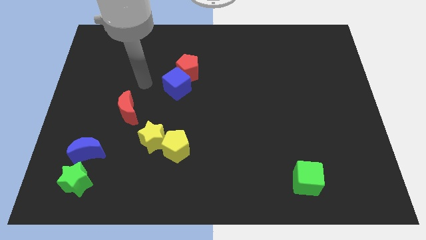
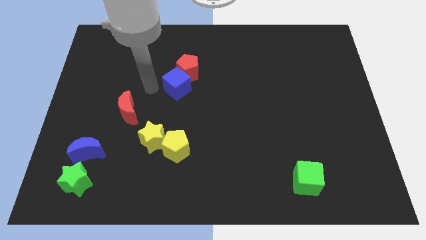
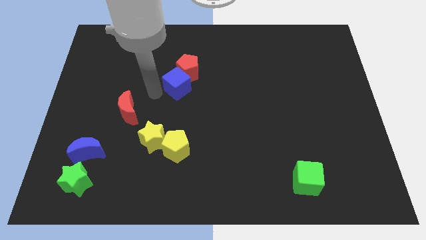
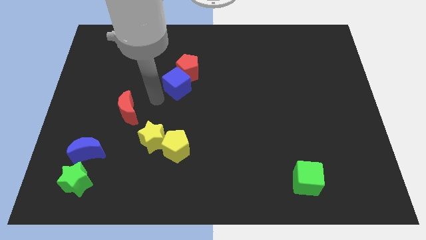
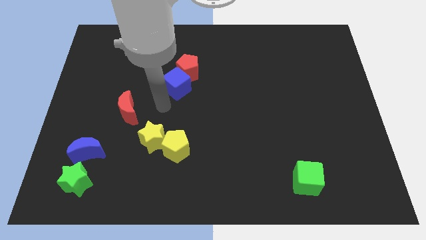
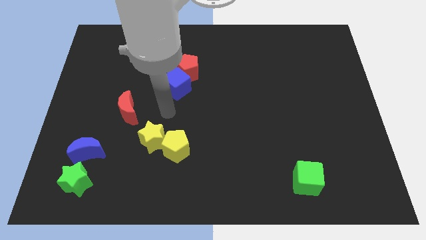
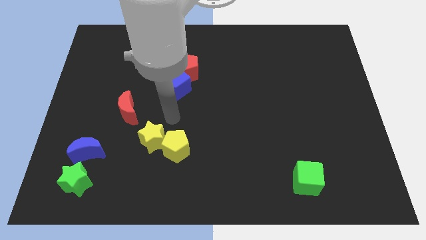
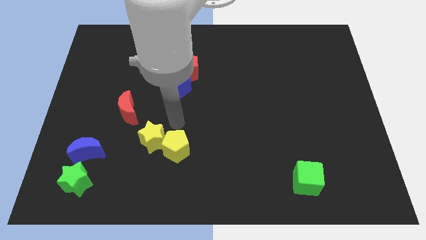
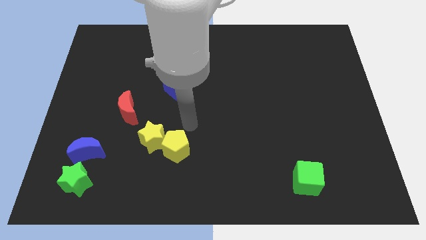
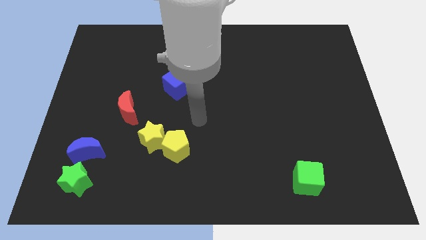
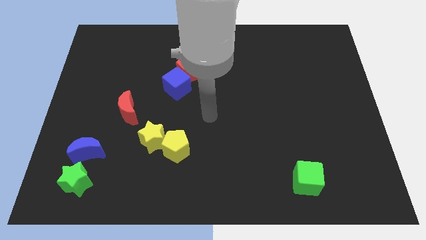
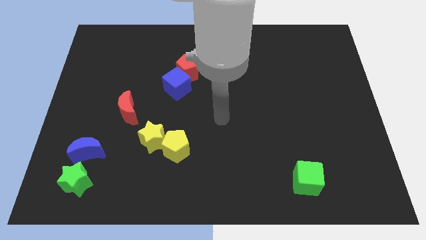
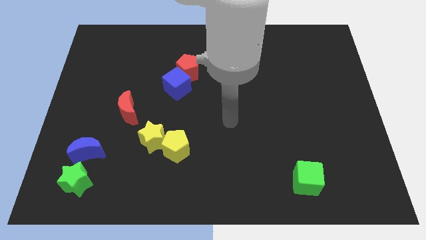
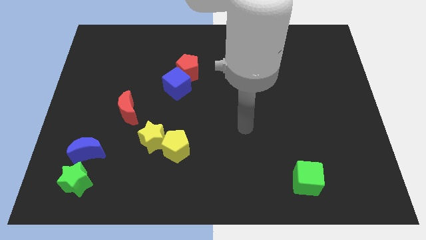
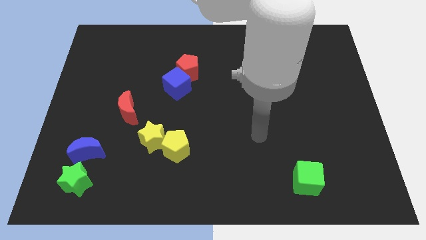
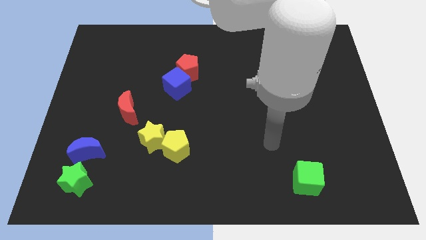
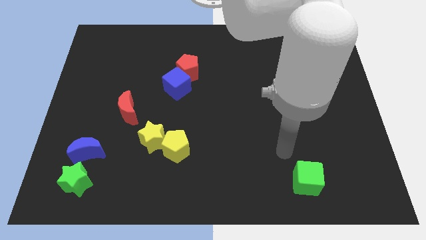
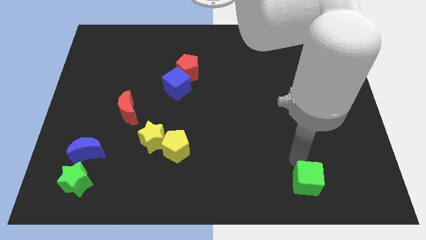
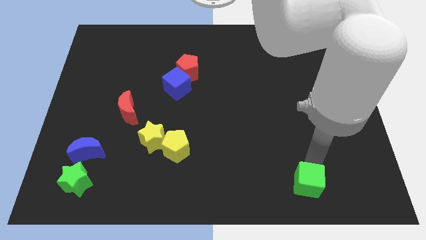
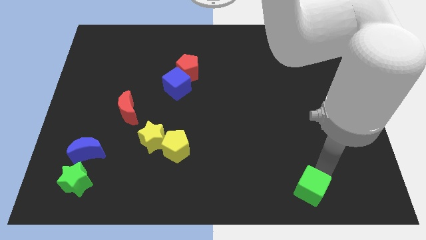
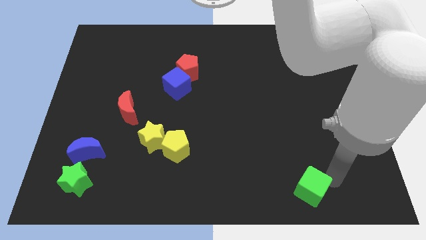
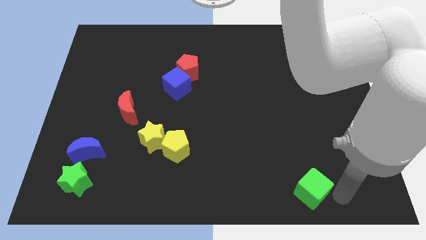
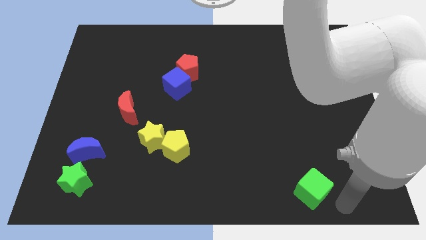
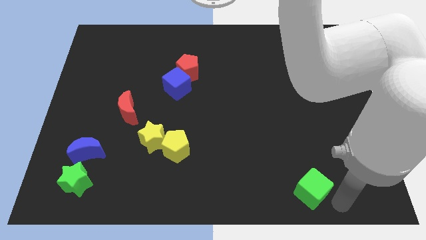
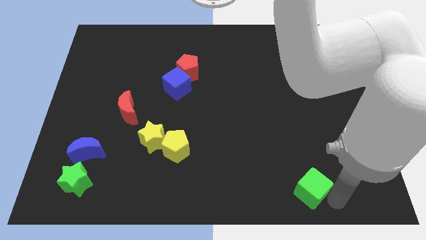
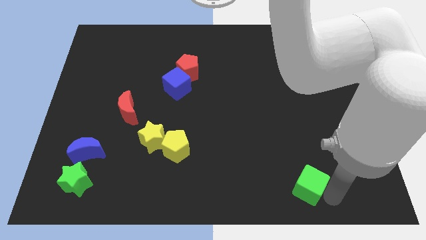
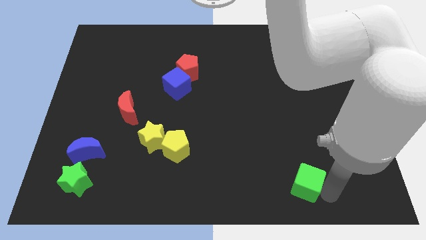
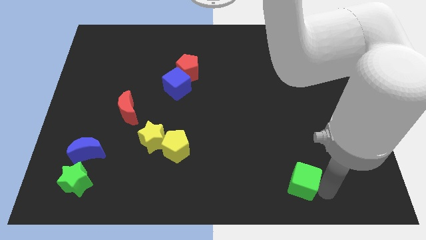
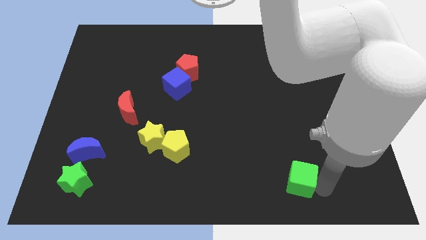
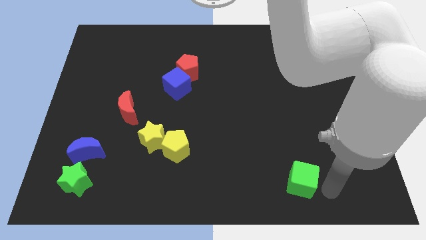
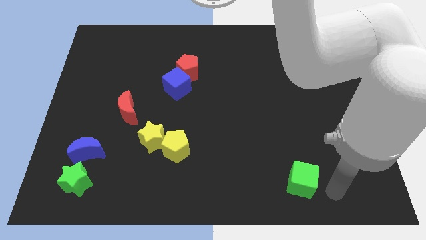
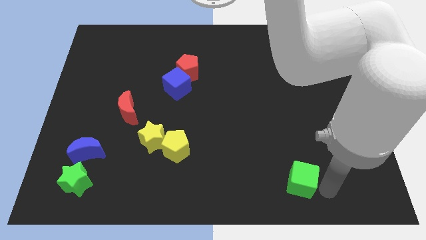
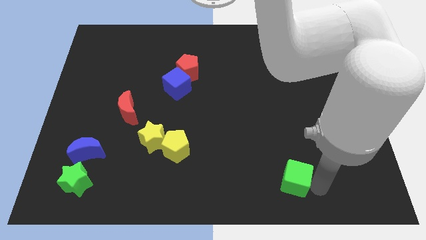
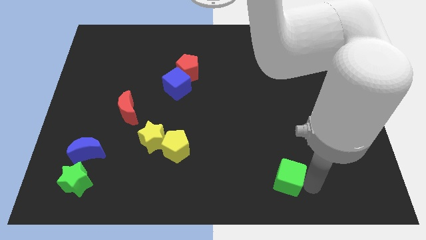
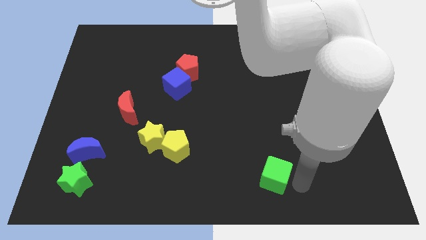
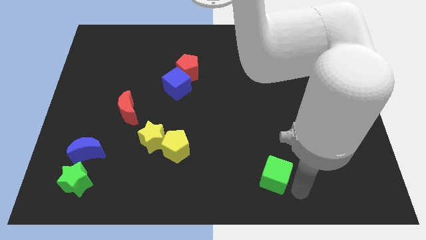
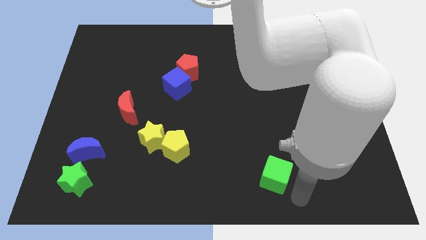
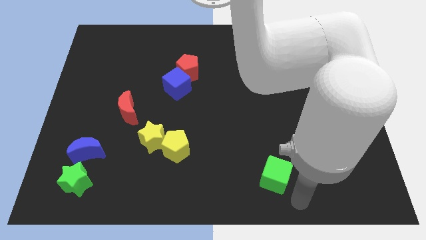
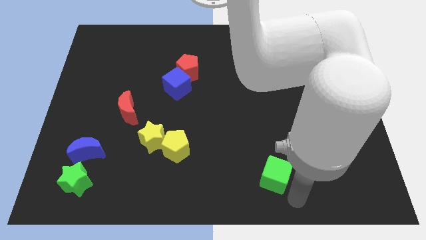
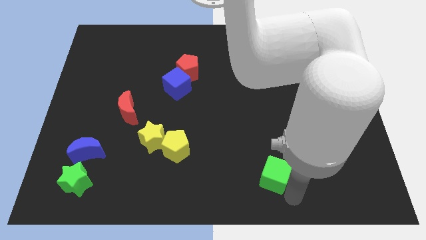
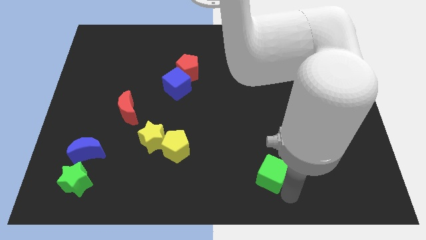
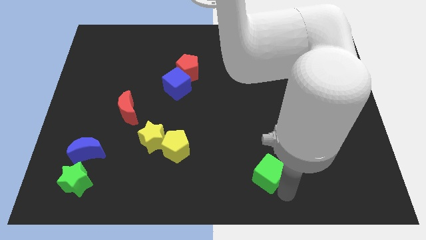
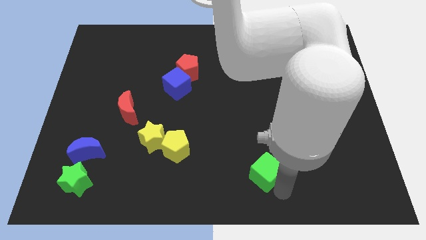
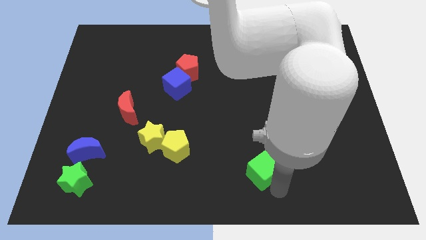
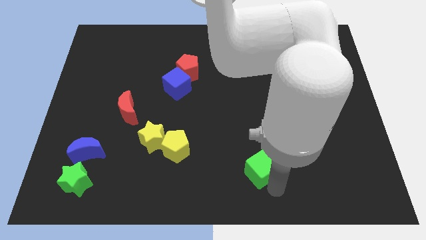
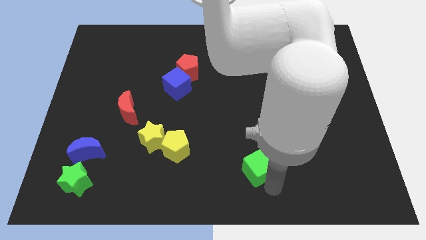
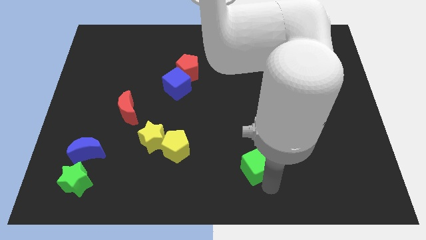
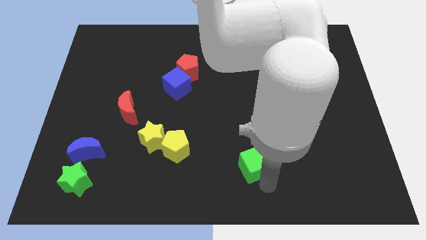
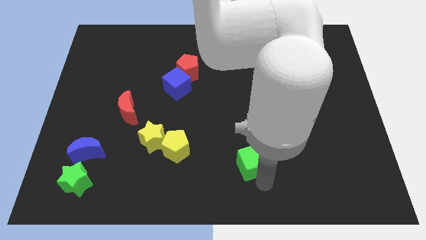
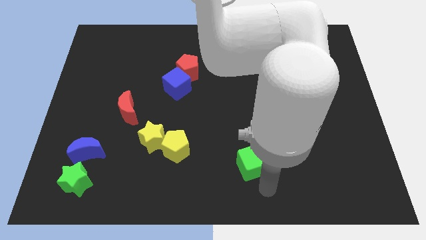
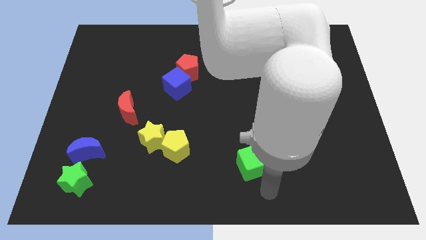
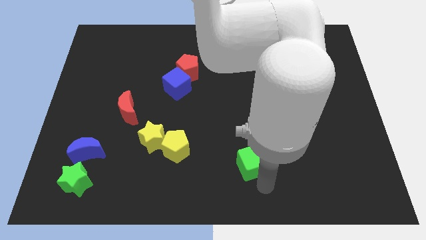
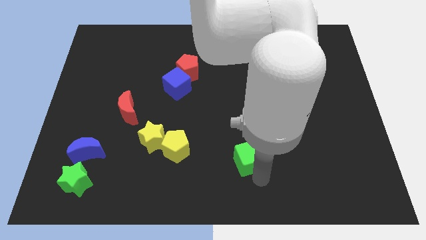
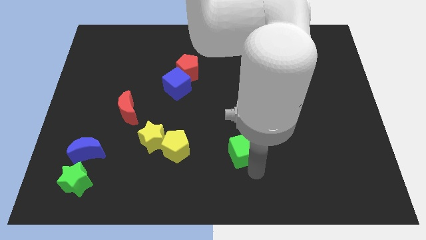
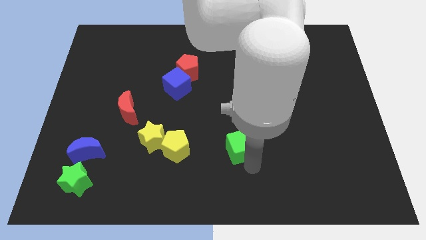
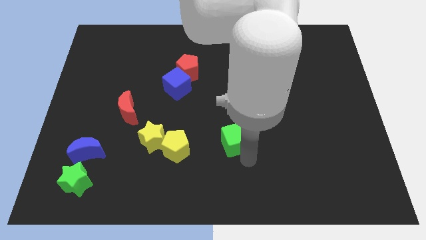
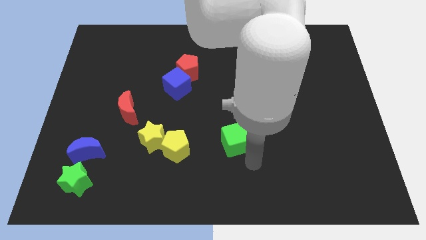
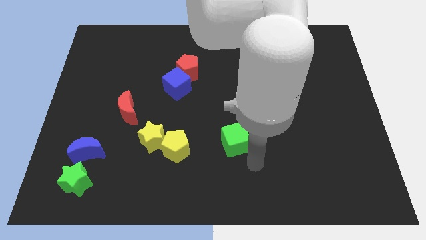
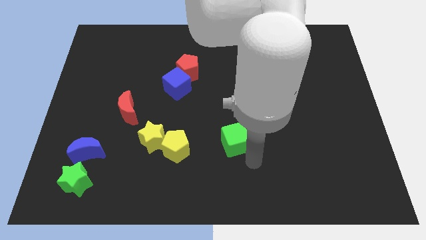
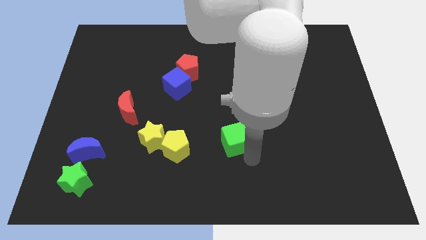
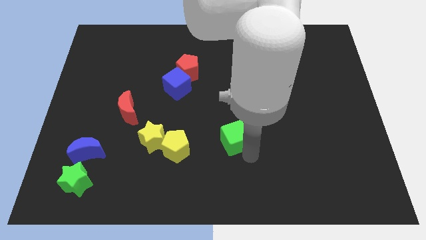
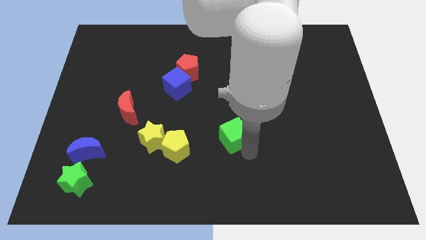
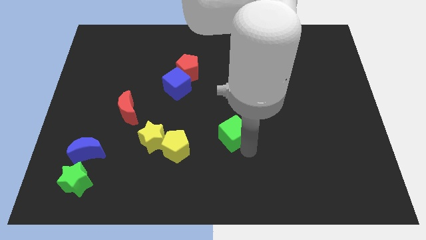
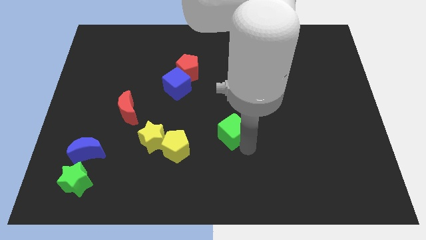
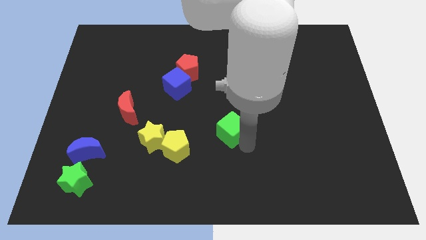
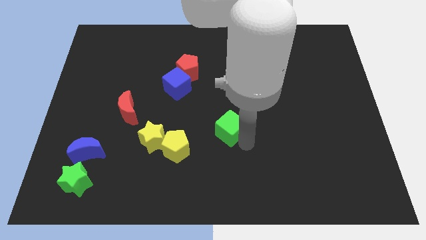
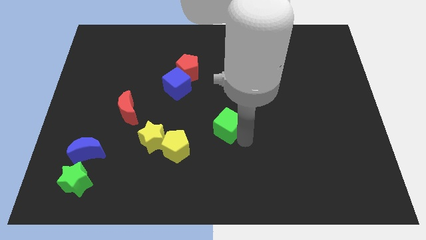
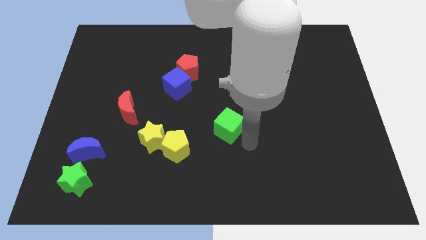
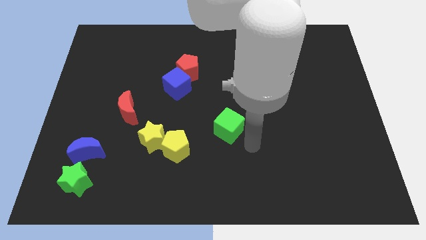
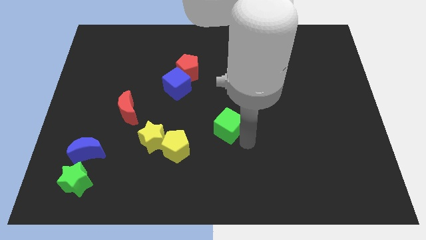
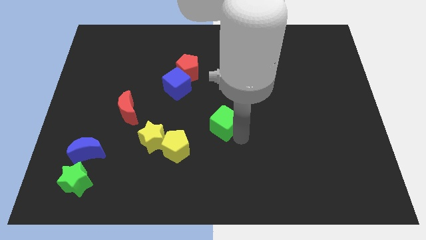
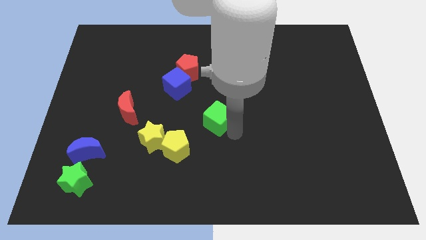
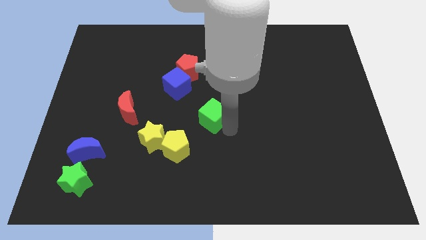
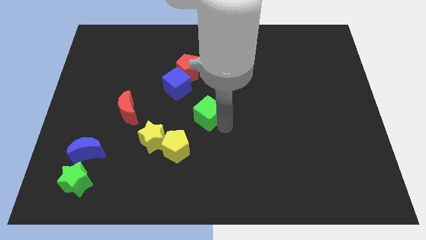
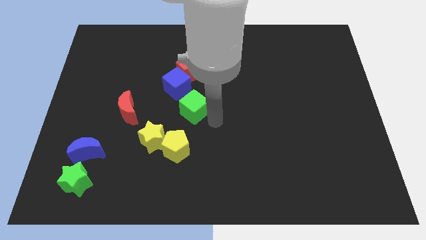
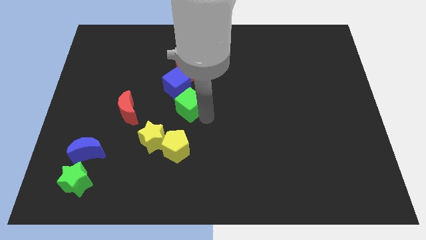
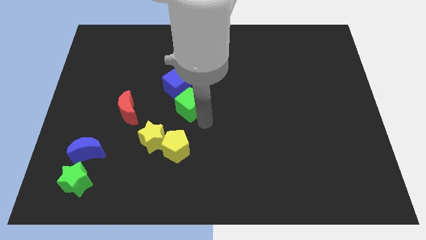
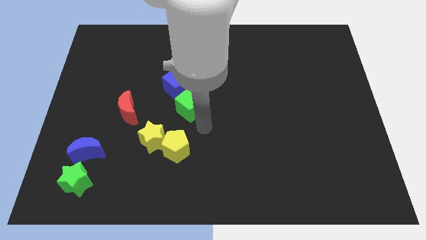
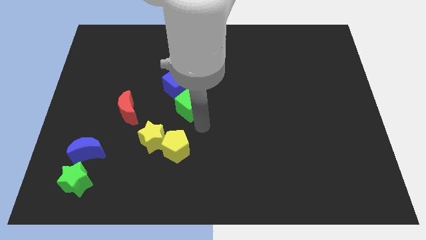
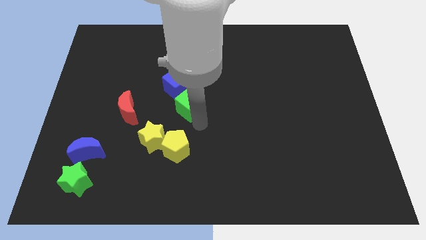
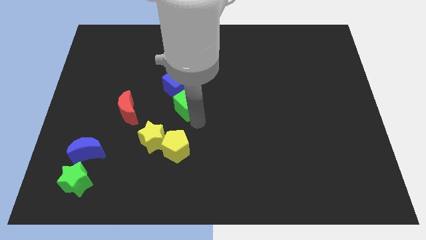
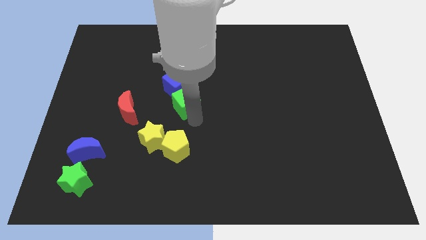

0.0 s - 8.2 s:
push the green cube to the blue cube
